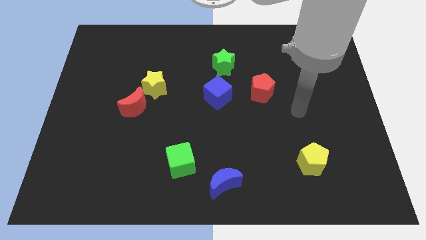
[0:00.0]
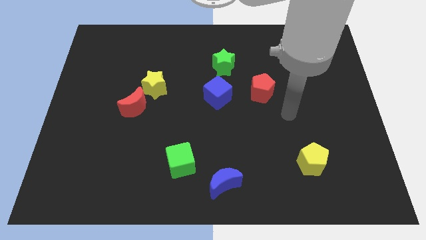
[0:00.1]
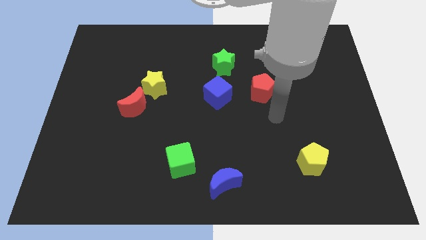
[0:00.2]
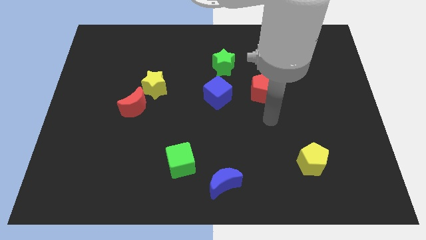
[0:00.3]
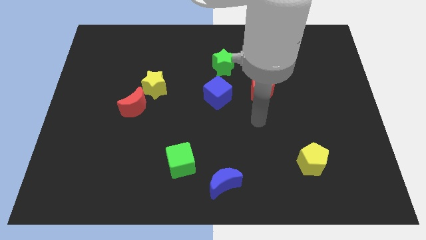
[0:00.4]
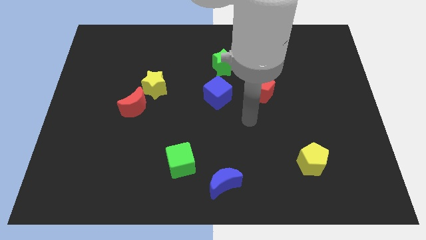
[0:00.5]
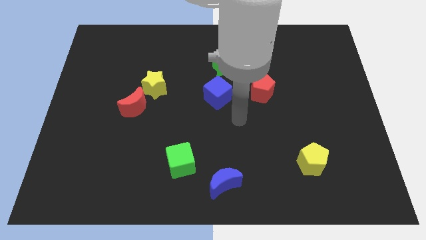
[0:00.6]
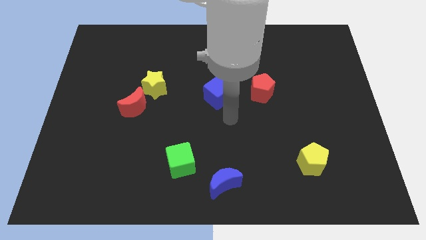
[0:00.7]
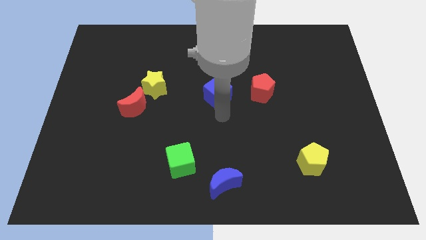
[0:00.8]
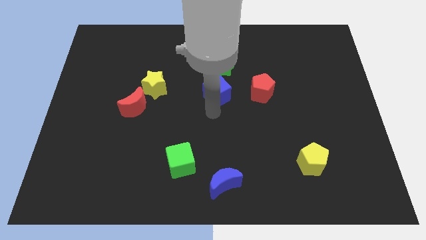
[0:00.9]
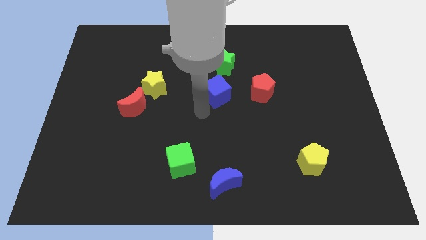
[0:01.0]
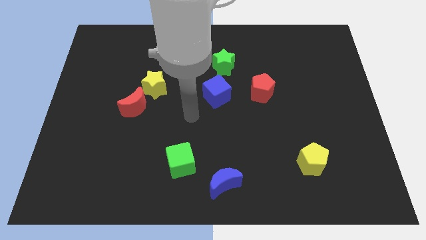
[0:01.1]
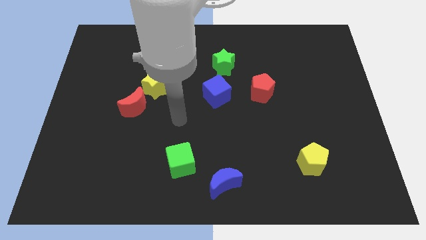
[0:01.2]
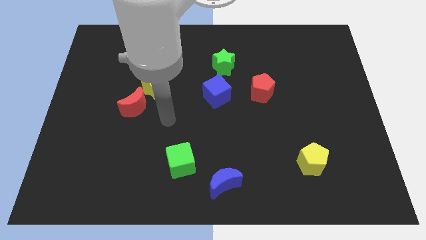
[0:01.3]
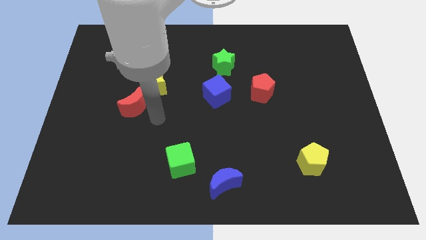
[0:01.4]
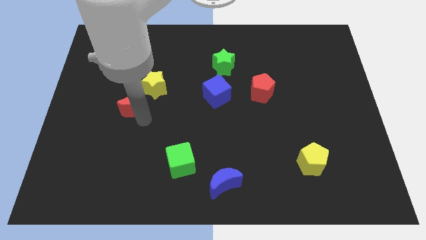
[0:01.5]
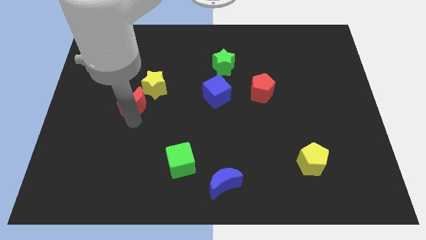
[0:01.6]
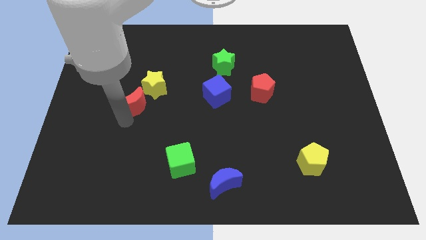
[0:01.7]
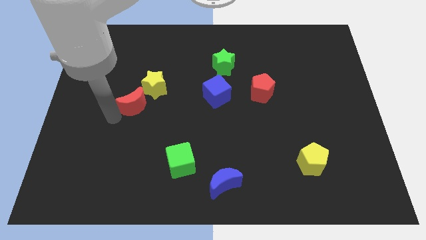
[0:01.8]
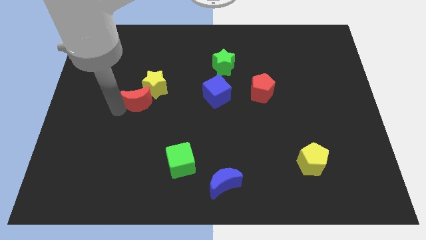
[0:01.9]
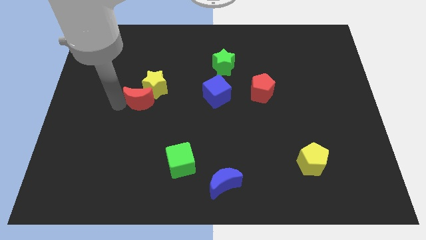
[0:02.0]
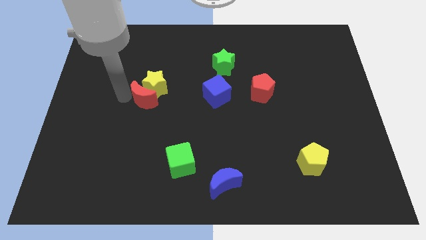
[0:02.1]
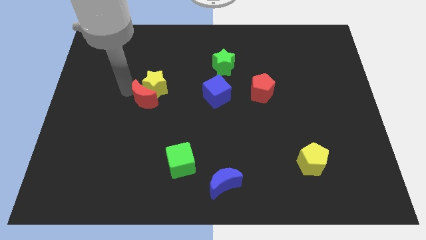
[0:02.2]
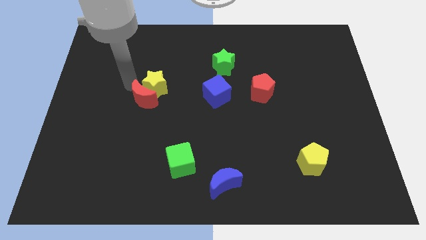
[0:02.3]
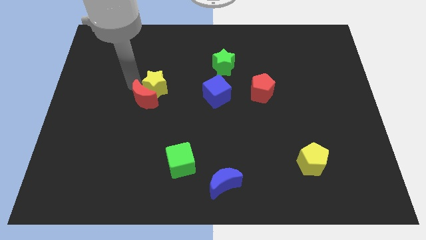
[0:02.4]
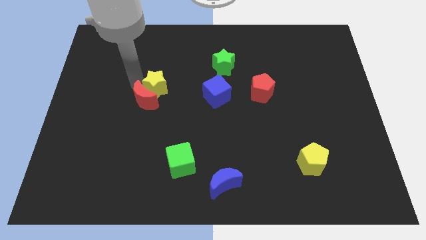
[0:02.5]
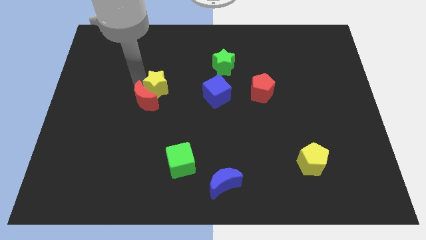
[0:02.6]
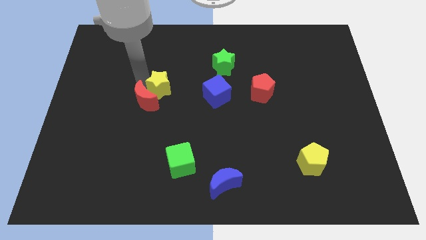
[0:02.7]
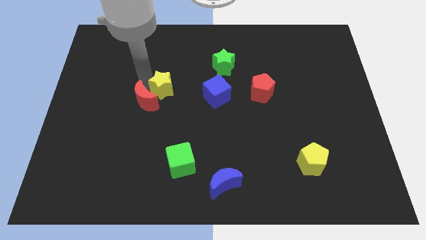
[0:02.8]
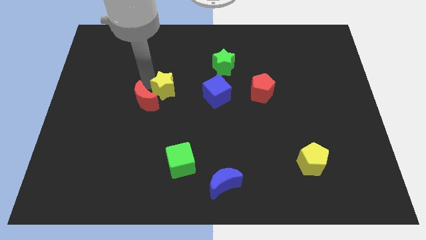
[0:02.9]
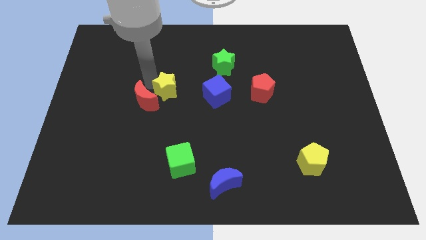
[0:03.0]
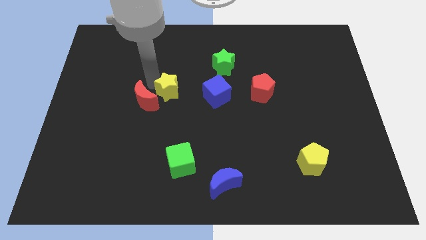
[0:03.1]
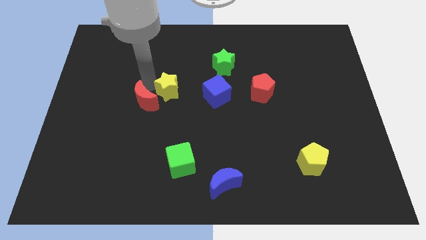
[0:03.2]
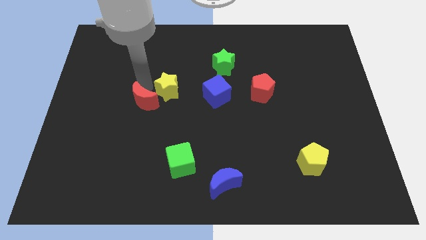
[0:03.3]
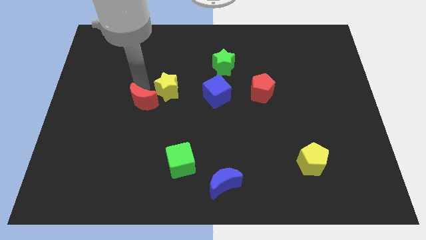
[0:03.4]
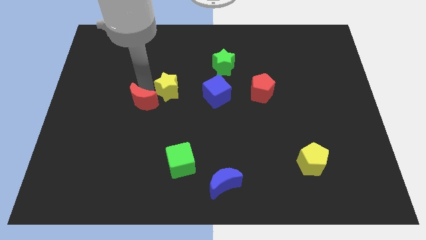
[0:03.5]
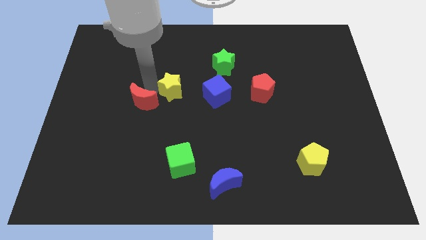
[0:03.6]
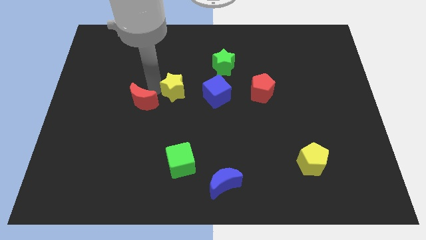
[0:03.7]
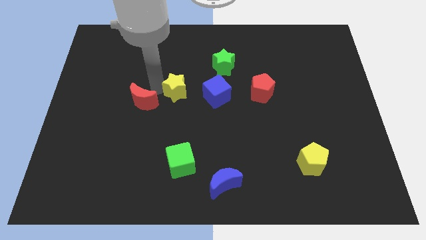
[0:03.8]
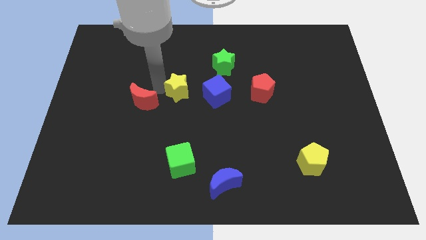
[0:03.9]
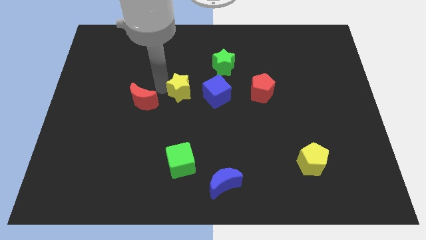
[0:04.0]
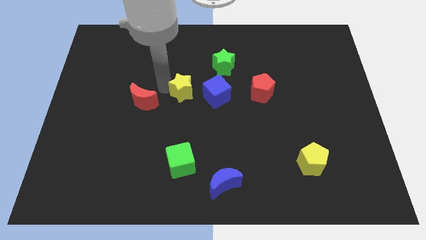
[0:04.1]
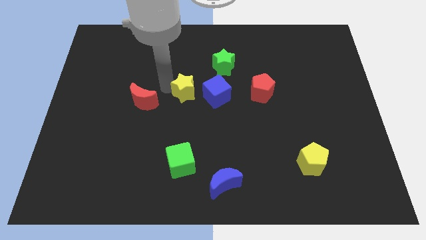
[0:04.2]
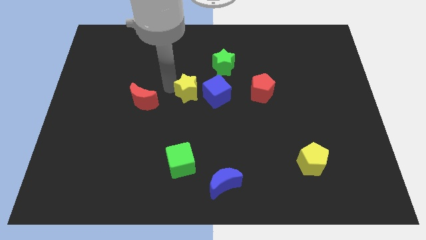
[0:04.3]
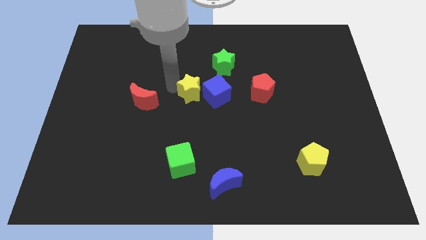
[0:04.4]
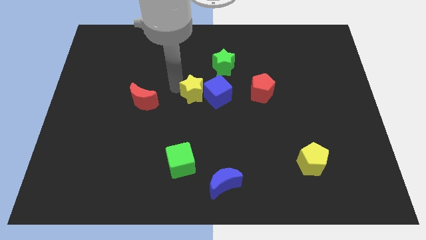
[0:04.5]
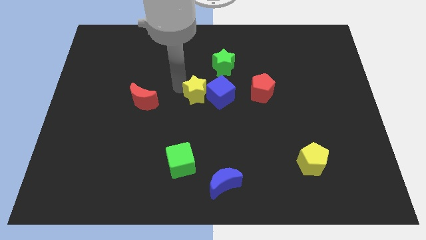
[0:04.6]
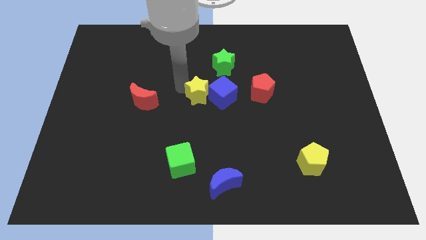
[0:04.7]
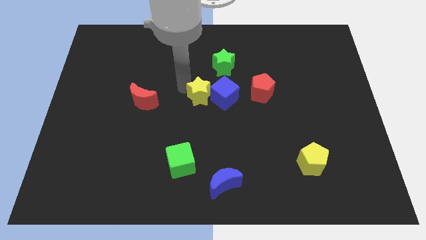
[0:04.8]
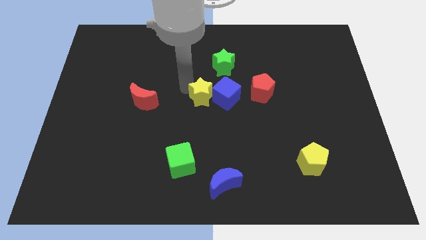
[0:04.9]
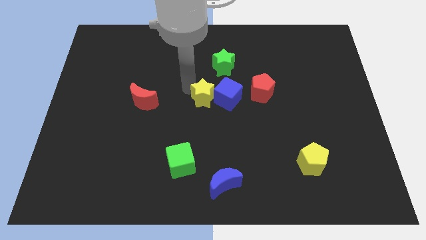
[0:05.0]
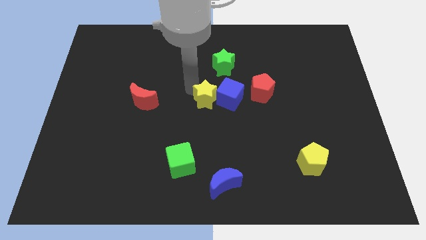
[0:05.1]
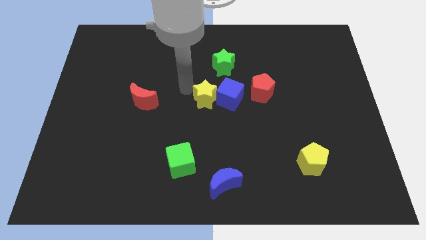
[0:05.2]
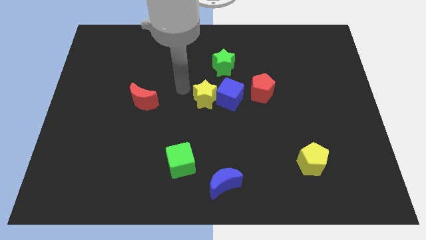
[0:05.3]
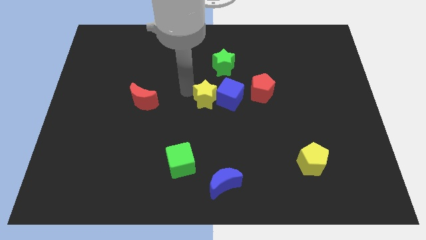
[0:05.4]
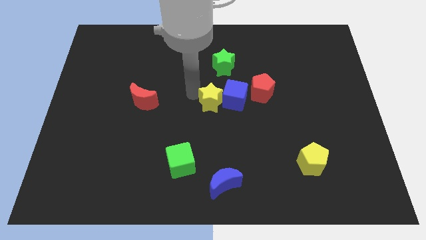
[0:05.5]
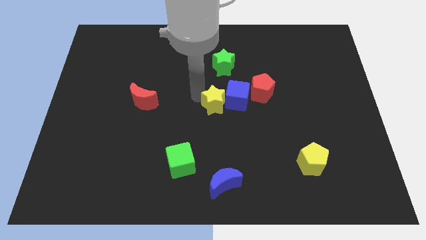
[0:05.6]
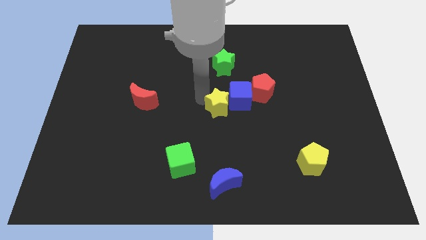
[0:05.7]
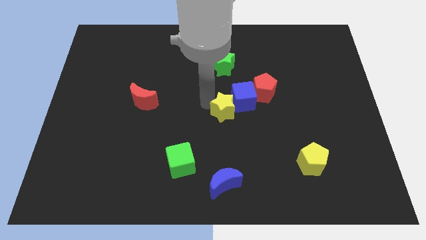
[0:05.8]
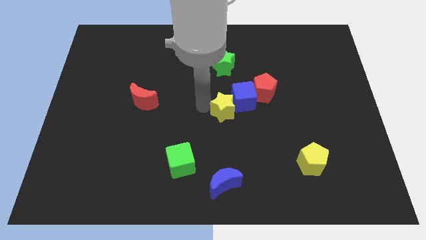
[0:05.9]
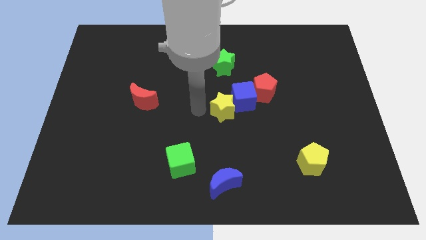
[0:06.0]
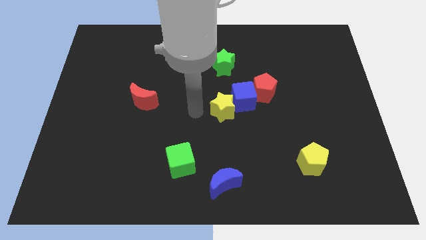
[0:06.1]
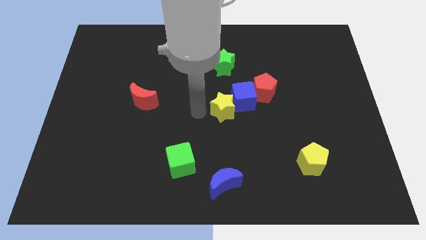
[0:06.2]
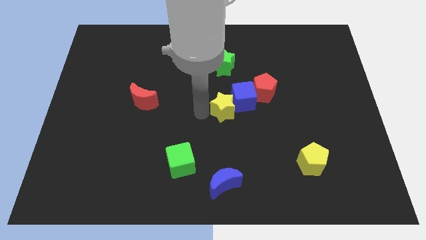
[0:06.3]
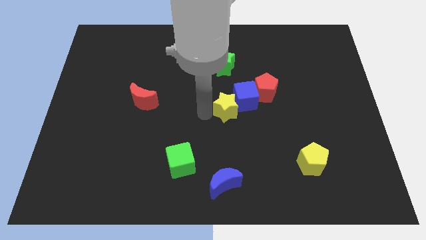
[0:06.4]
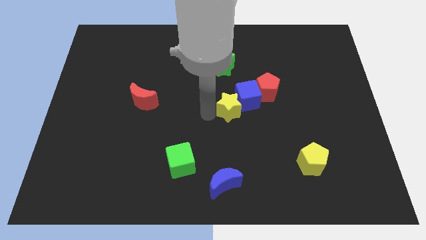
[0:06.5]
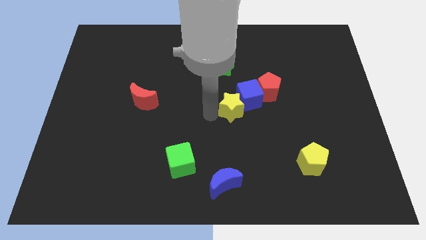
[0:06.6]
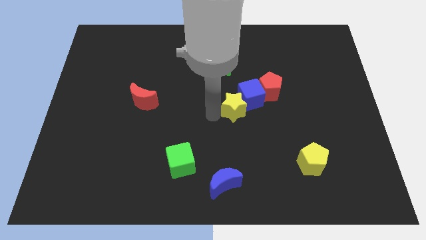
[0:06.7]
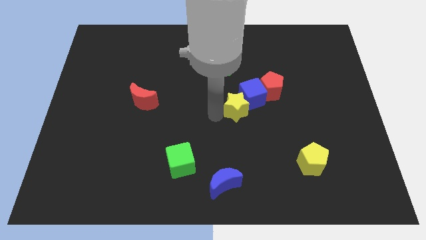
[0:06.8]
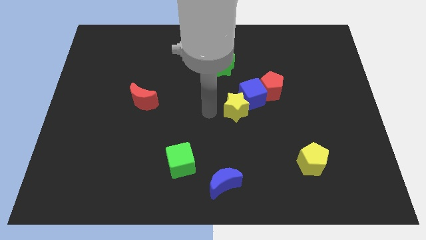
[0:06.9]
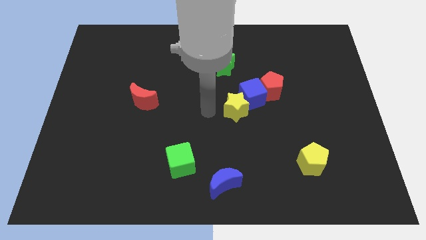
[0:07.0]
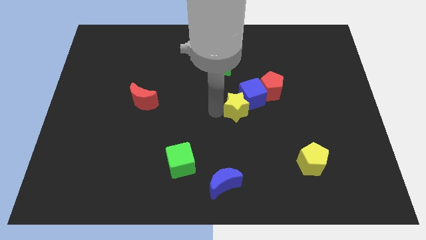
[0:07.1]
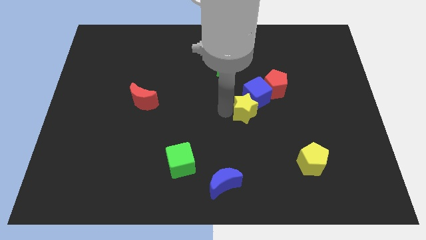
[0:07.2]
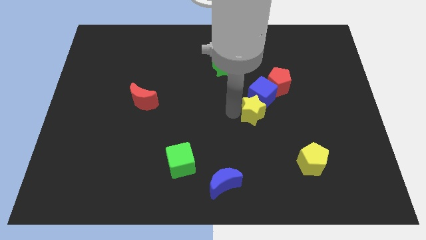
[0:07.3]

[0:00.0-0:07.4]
slide the yellow star right

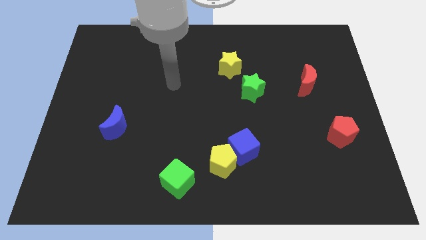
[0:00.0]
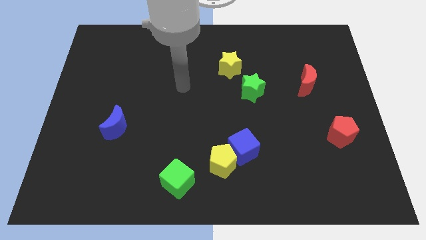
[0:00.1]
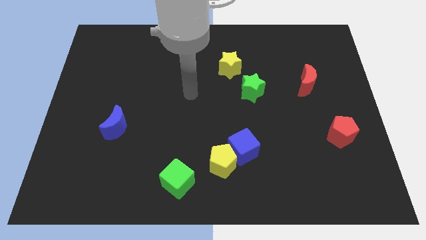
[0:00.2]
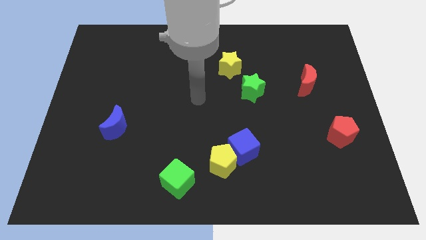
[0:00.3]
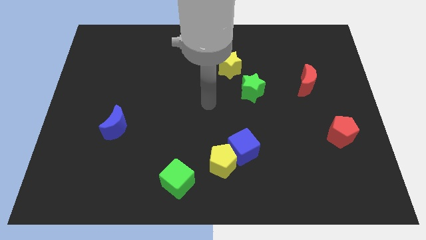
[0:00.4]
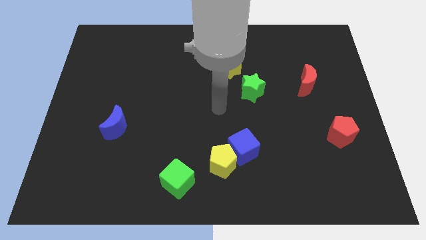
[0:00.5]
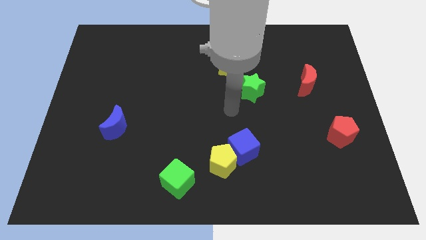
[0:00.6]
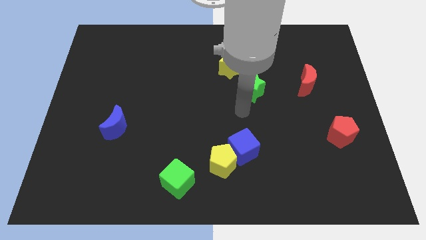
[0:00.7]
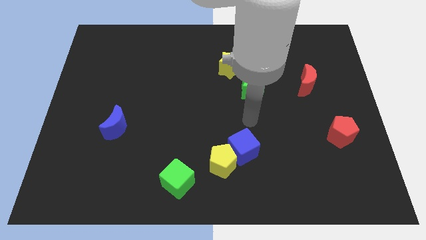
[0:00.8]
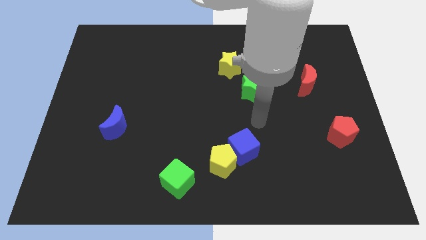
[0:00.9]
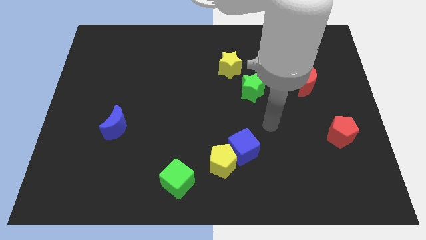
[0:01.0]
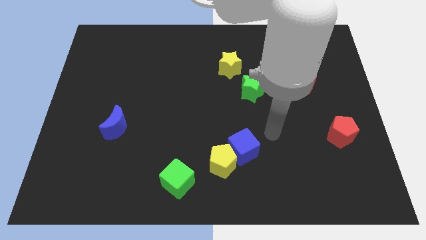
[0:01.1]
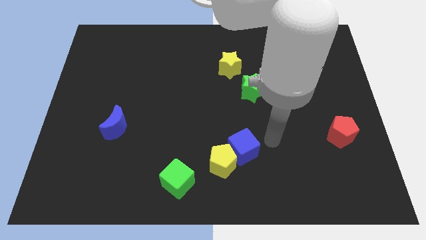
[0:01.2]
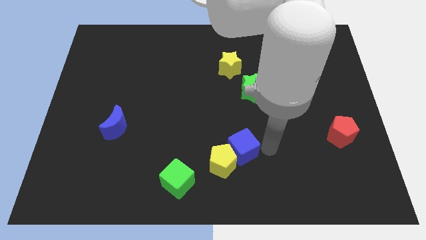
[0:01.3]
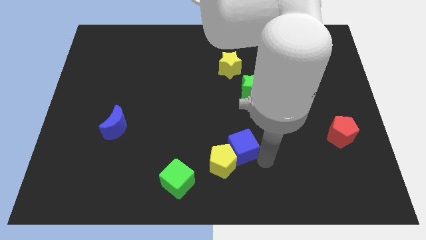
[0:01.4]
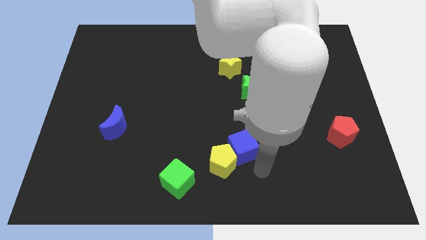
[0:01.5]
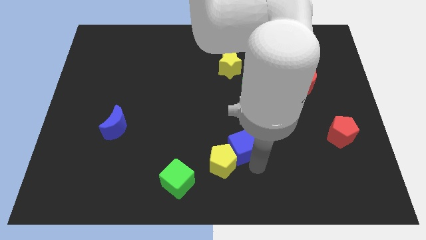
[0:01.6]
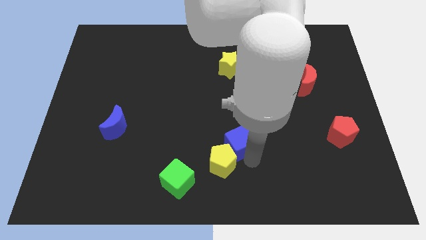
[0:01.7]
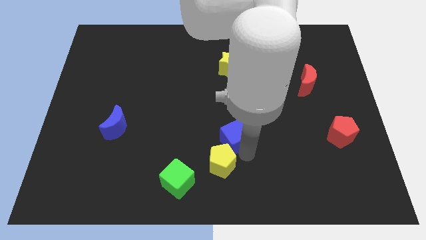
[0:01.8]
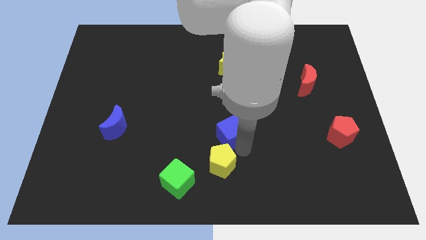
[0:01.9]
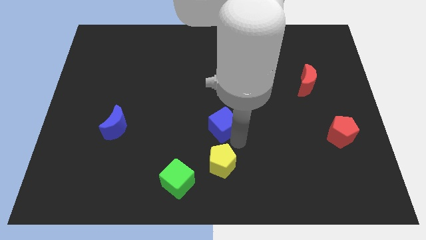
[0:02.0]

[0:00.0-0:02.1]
slide the blue cube somewhat upwards and to the left
